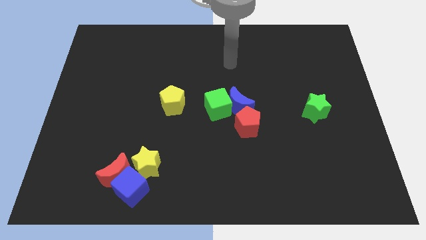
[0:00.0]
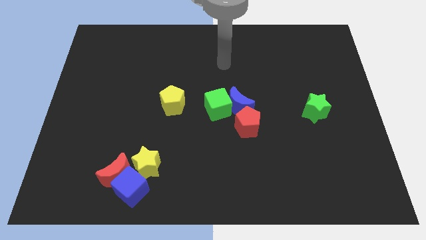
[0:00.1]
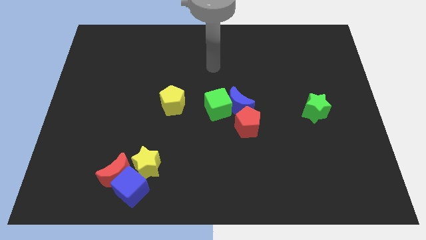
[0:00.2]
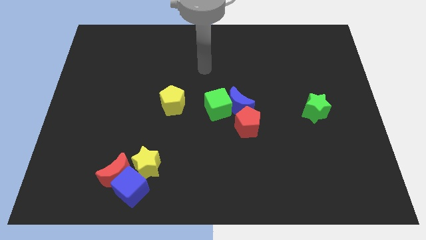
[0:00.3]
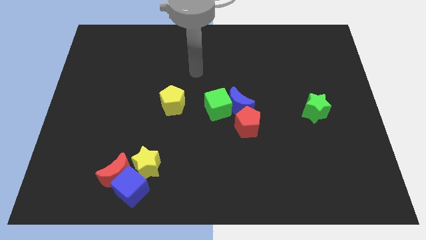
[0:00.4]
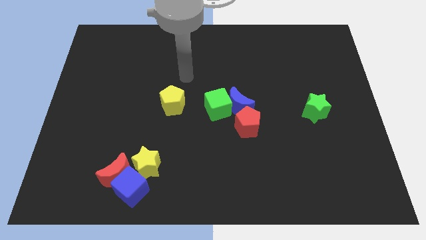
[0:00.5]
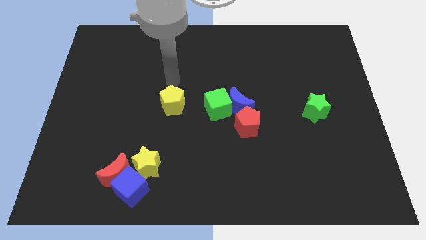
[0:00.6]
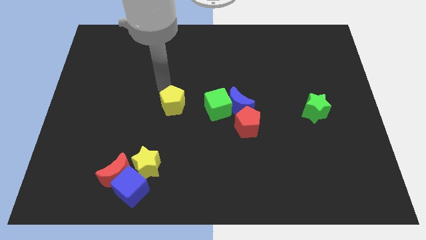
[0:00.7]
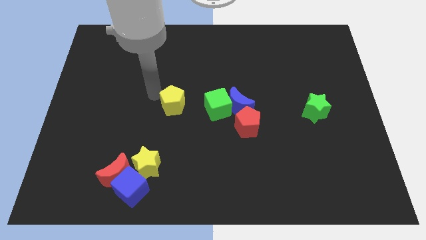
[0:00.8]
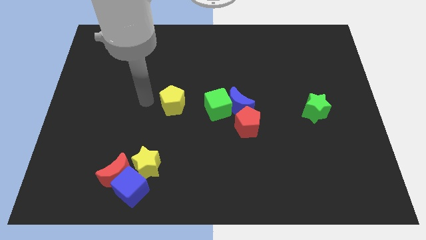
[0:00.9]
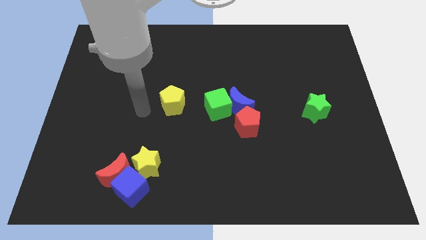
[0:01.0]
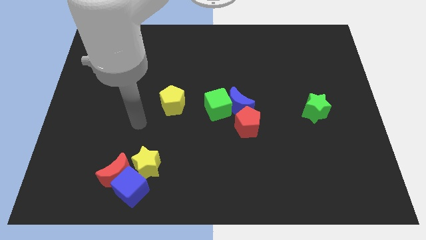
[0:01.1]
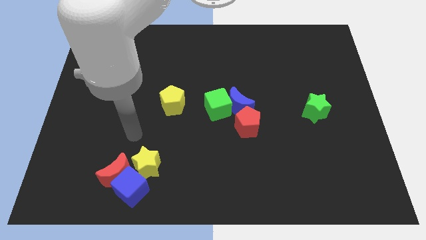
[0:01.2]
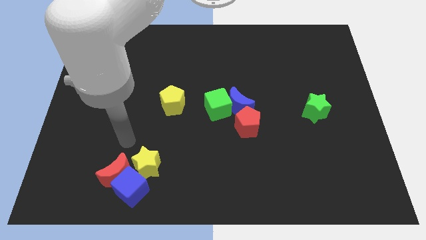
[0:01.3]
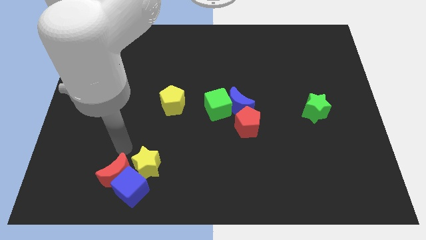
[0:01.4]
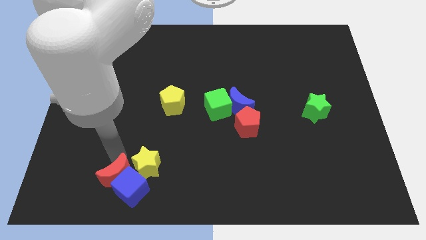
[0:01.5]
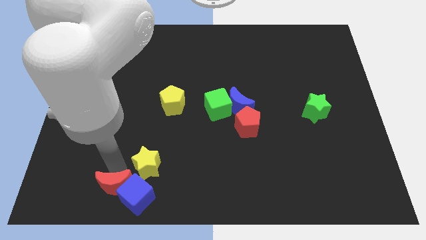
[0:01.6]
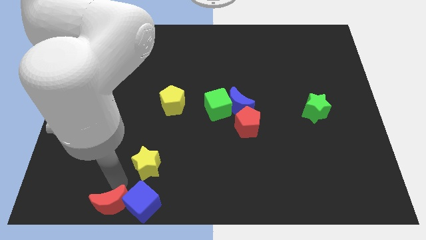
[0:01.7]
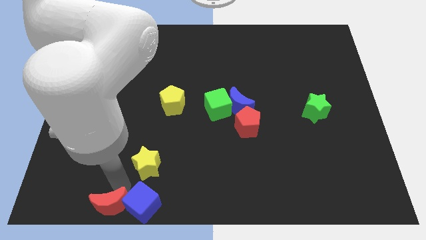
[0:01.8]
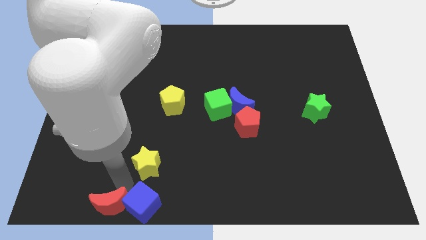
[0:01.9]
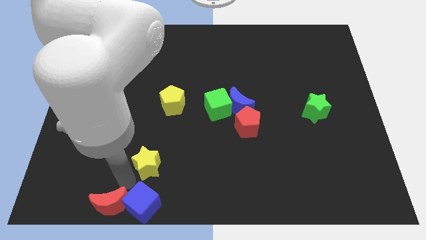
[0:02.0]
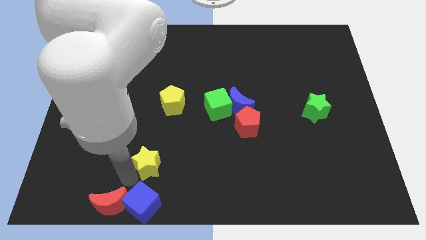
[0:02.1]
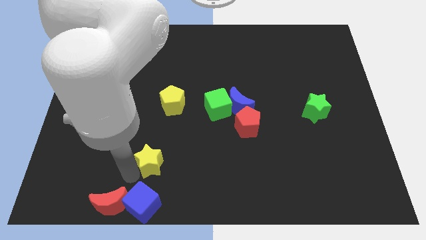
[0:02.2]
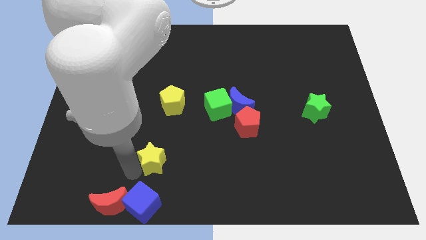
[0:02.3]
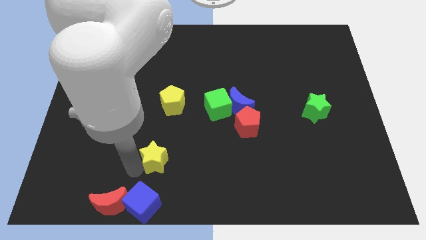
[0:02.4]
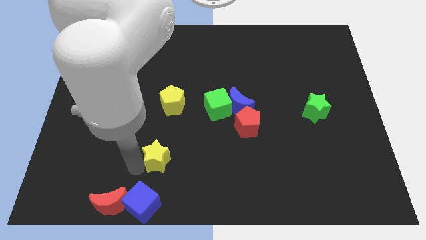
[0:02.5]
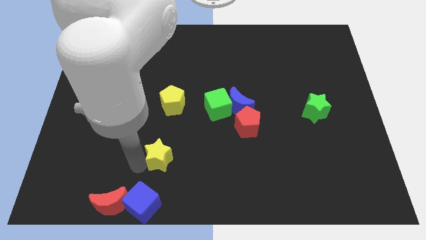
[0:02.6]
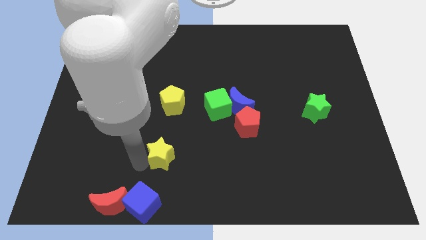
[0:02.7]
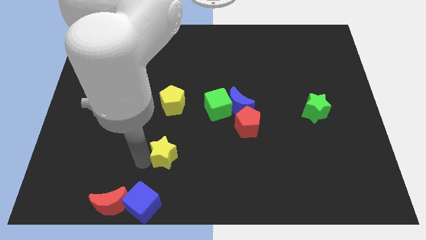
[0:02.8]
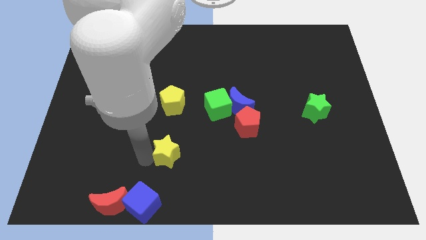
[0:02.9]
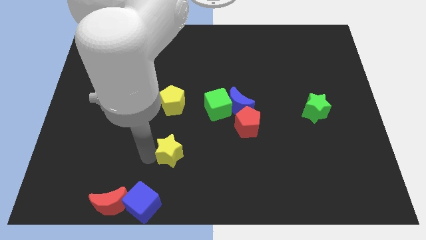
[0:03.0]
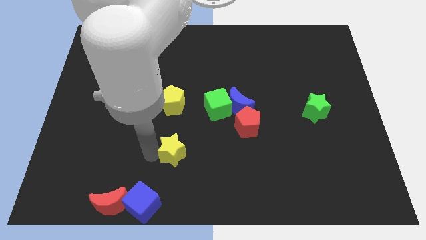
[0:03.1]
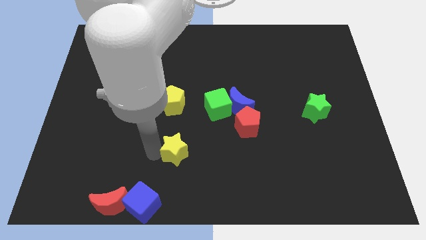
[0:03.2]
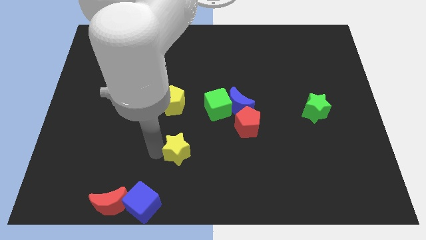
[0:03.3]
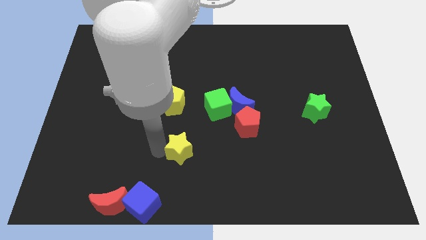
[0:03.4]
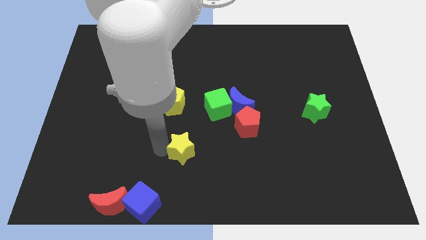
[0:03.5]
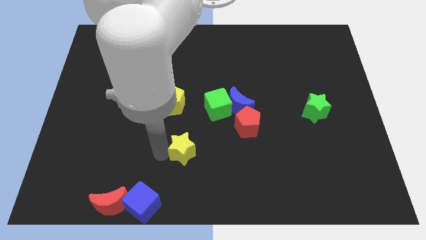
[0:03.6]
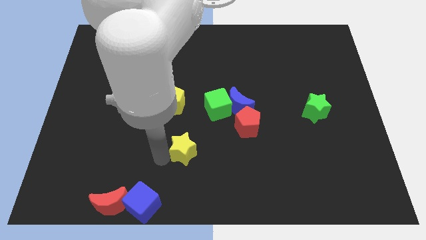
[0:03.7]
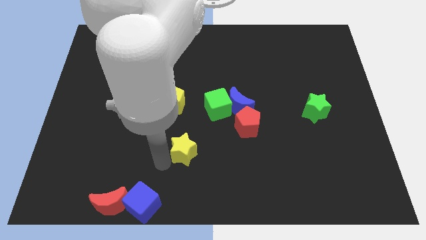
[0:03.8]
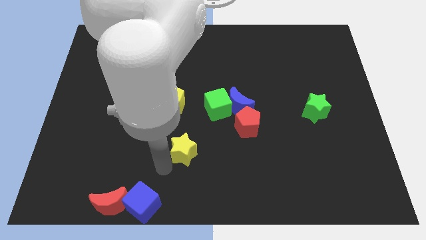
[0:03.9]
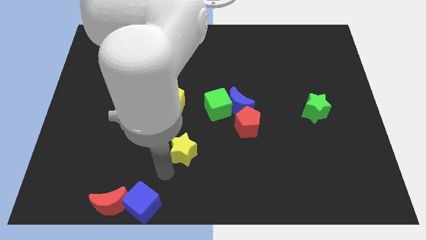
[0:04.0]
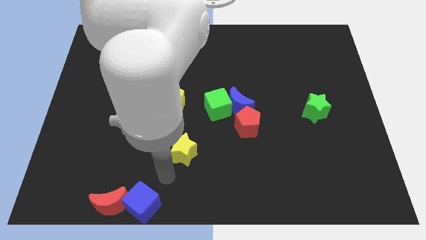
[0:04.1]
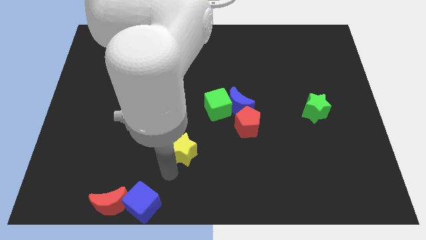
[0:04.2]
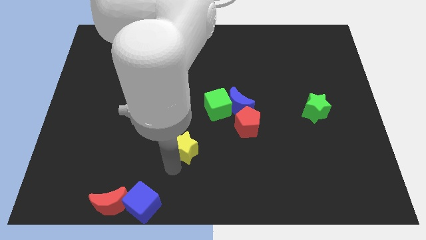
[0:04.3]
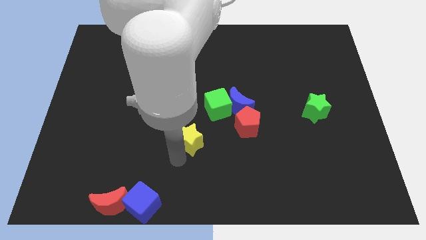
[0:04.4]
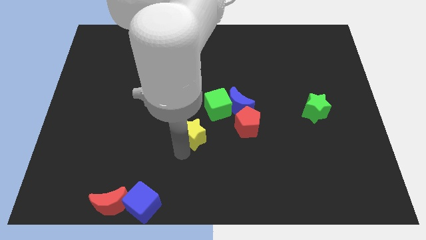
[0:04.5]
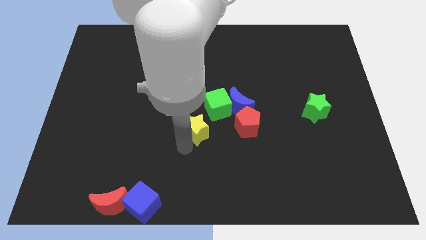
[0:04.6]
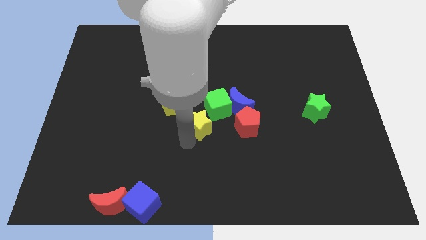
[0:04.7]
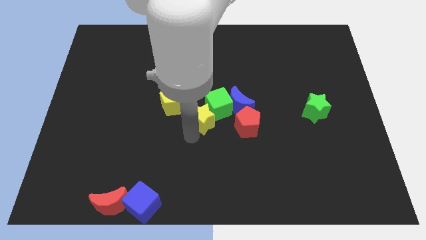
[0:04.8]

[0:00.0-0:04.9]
push the yellow star close to the green cube

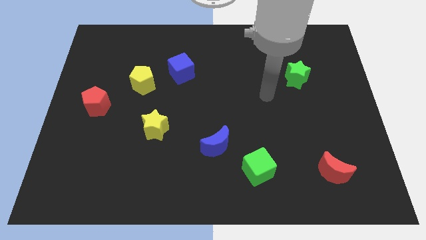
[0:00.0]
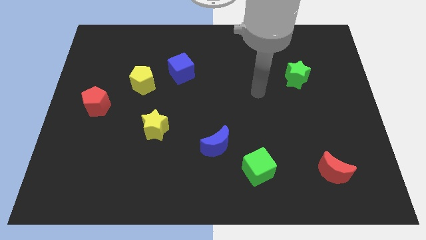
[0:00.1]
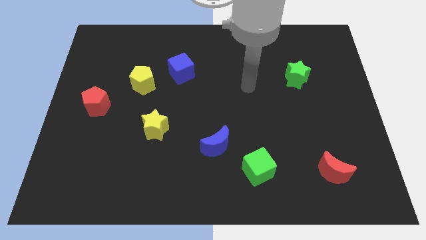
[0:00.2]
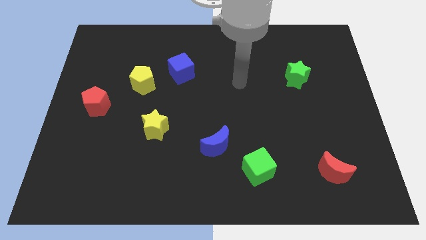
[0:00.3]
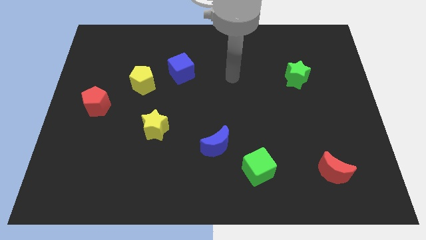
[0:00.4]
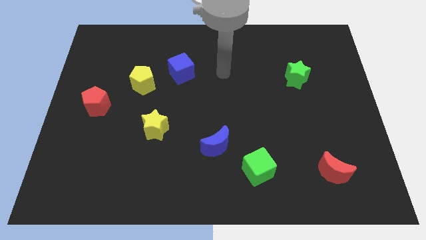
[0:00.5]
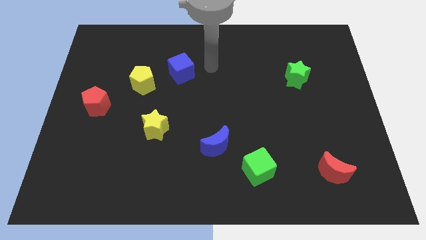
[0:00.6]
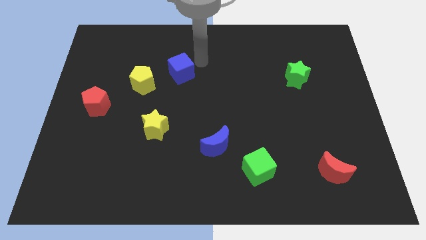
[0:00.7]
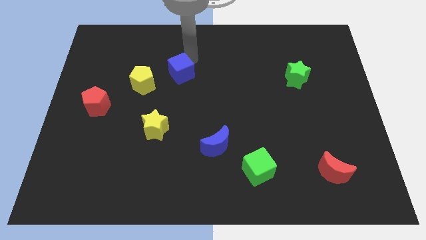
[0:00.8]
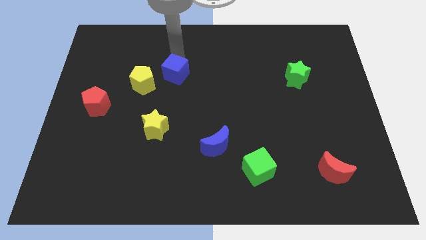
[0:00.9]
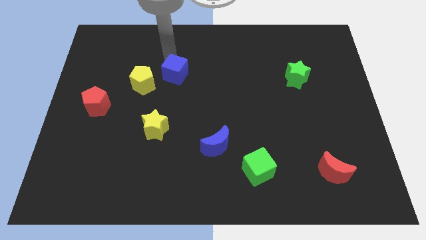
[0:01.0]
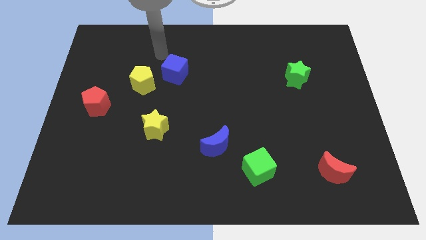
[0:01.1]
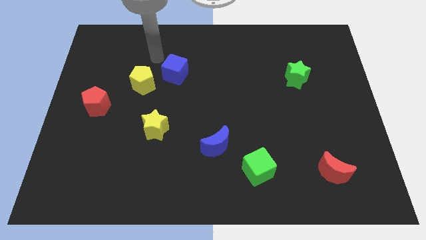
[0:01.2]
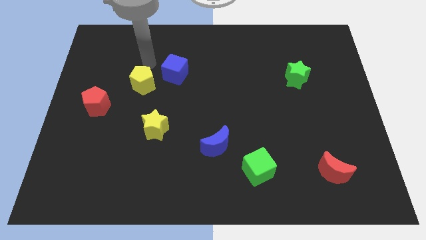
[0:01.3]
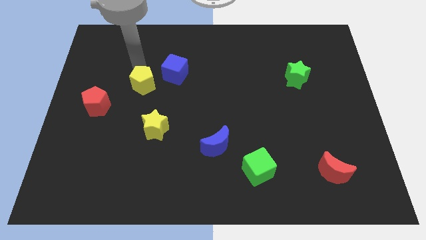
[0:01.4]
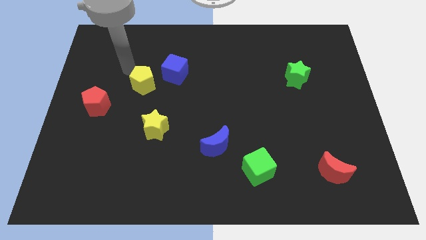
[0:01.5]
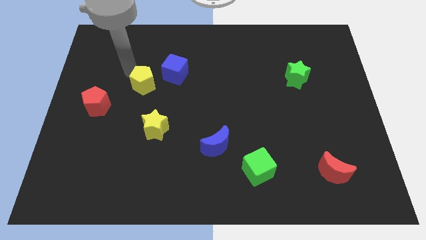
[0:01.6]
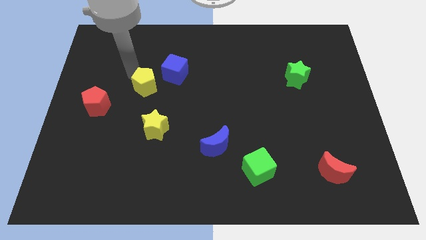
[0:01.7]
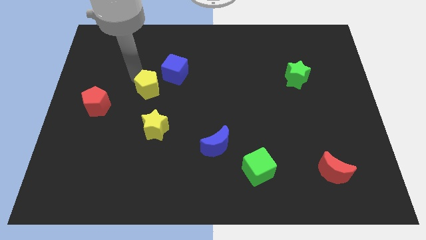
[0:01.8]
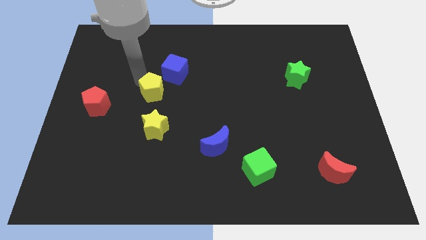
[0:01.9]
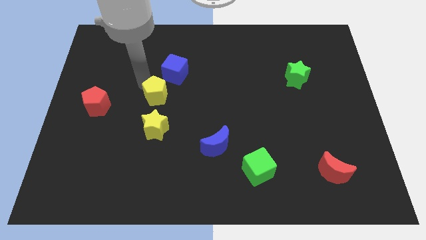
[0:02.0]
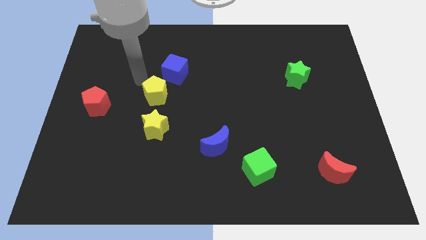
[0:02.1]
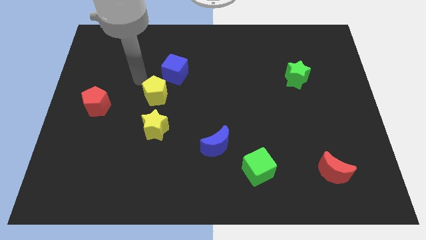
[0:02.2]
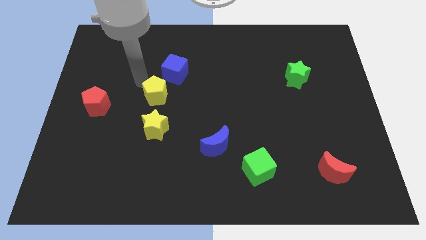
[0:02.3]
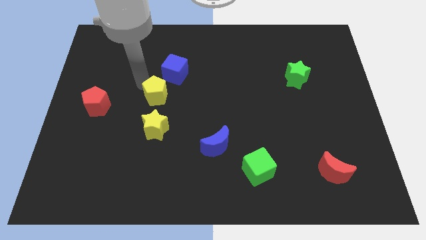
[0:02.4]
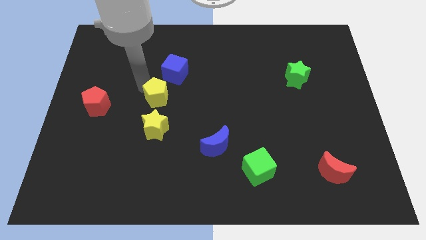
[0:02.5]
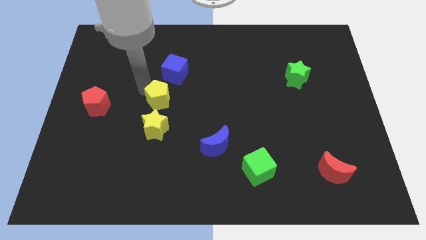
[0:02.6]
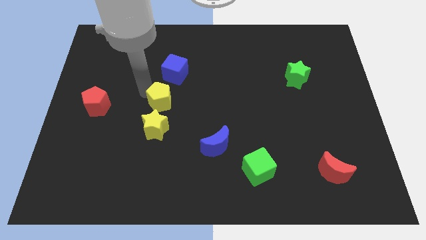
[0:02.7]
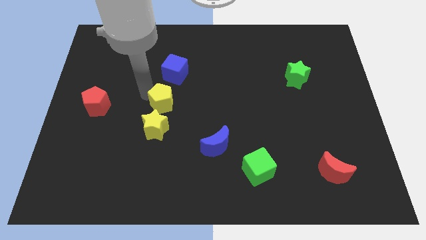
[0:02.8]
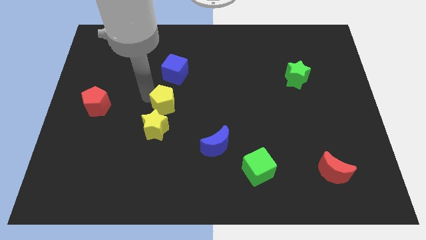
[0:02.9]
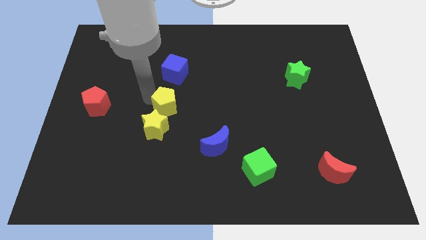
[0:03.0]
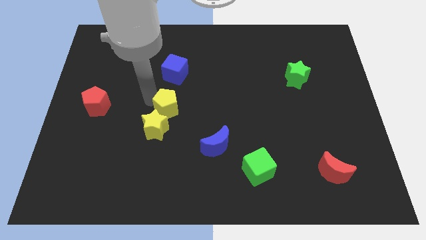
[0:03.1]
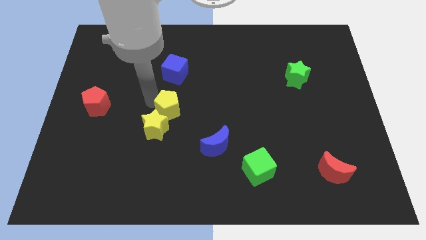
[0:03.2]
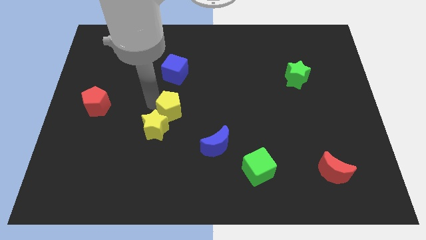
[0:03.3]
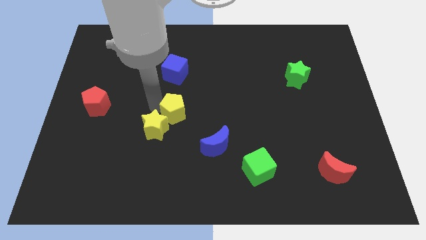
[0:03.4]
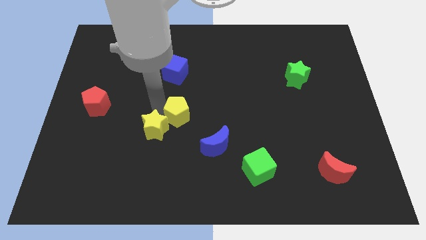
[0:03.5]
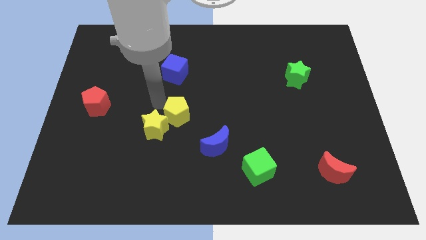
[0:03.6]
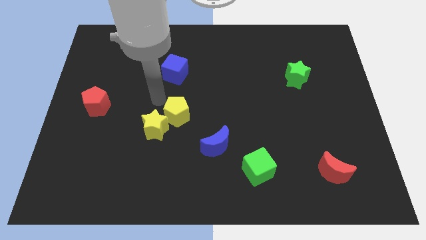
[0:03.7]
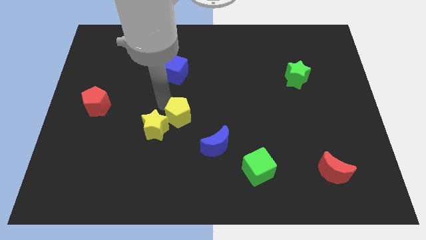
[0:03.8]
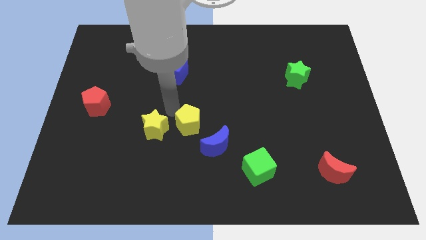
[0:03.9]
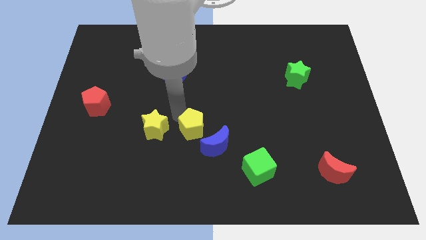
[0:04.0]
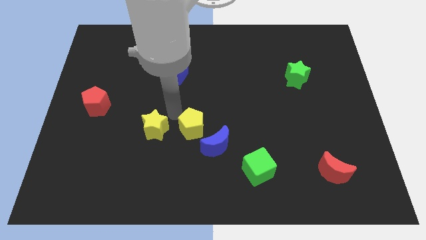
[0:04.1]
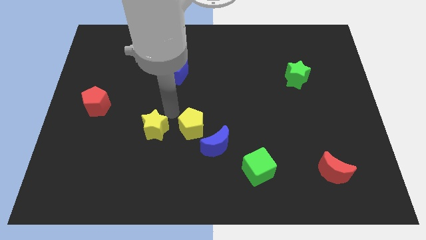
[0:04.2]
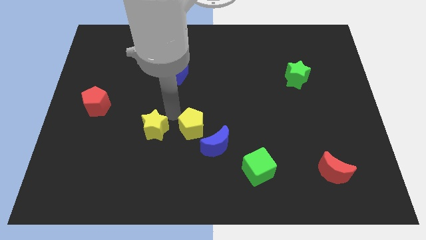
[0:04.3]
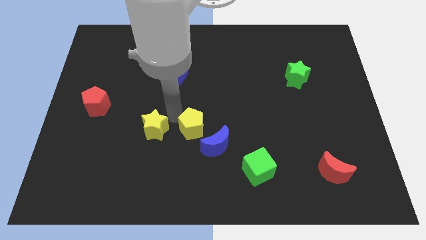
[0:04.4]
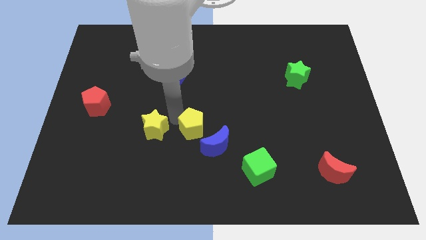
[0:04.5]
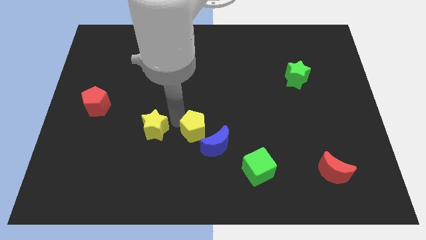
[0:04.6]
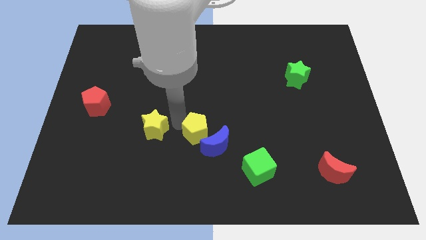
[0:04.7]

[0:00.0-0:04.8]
put the yellow pentagon to the blue moon
